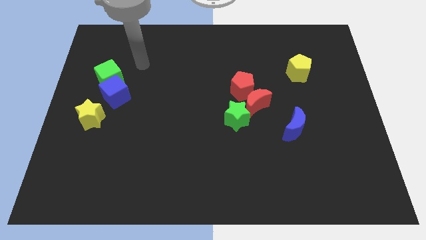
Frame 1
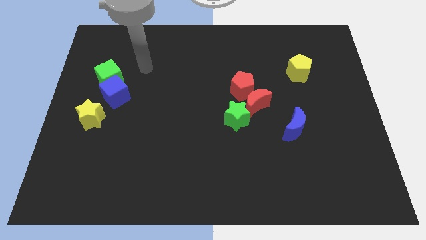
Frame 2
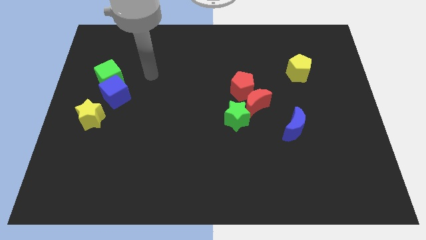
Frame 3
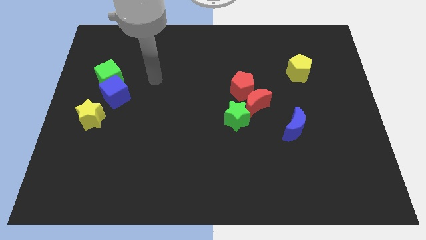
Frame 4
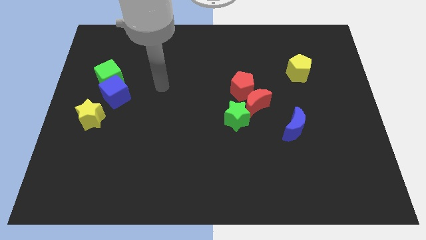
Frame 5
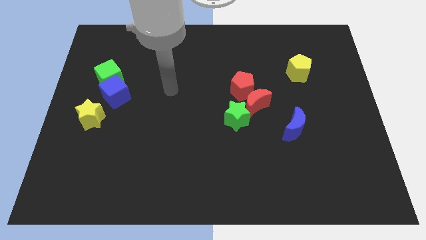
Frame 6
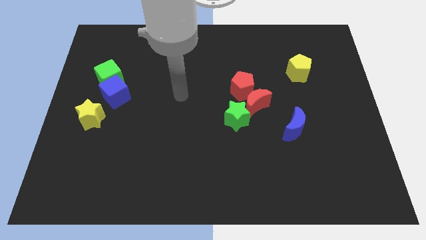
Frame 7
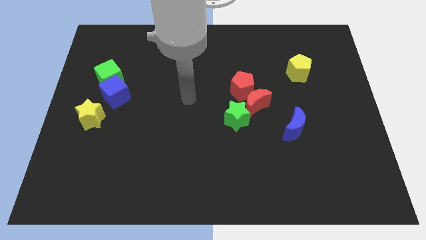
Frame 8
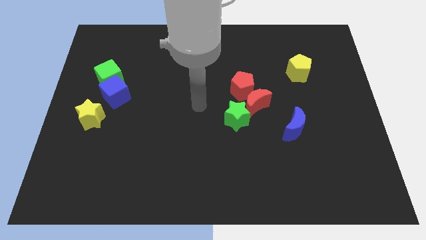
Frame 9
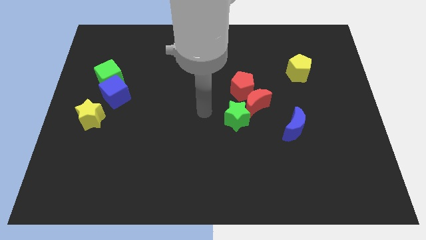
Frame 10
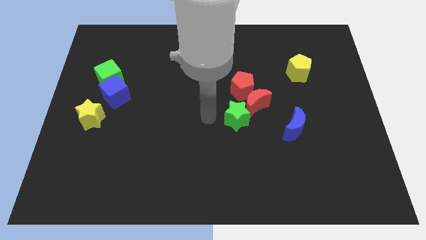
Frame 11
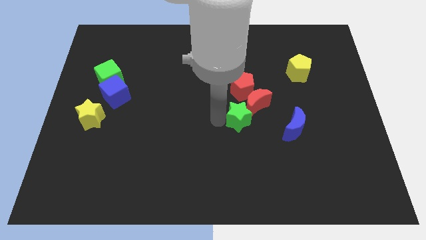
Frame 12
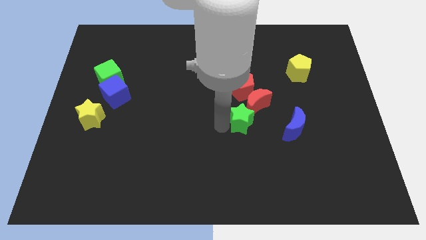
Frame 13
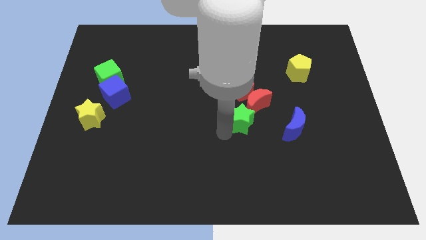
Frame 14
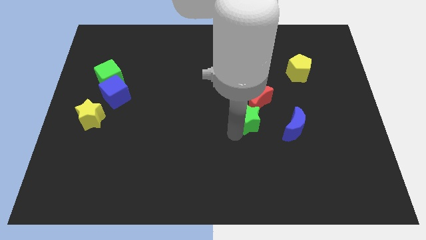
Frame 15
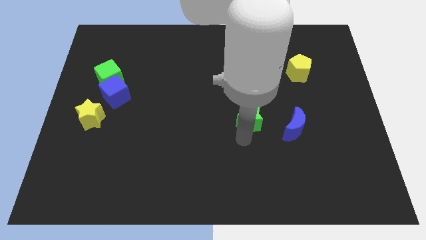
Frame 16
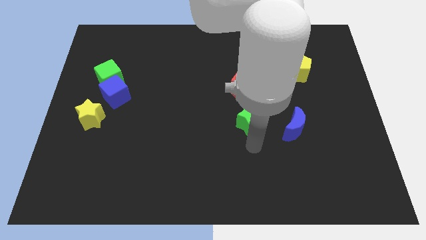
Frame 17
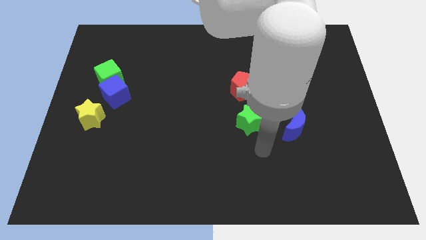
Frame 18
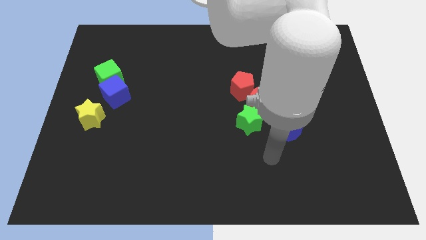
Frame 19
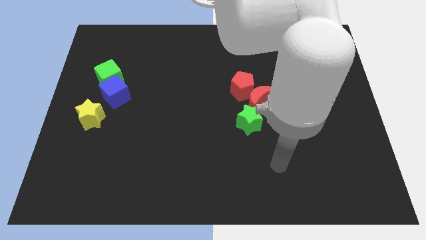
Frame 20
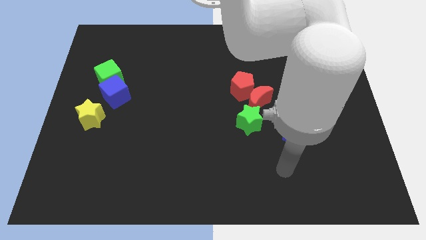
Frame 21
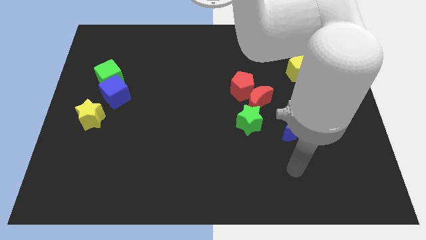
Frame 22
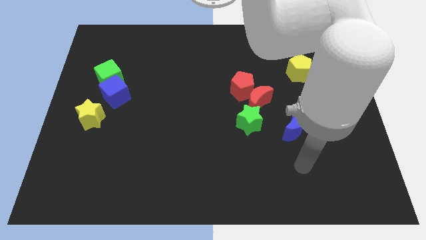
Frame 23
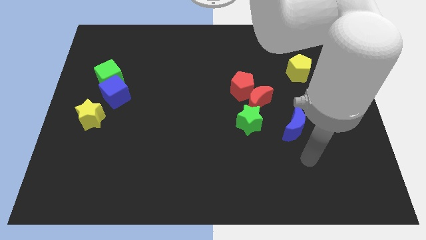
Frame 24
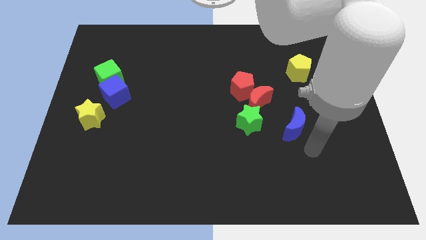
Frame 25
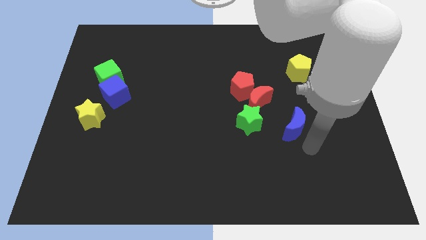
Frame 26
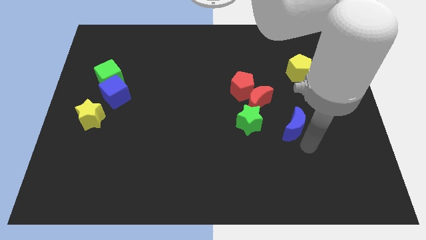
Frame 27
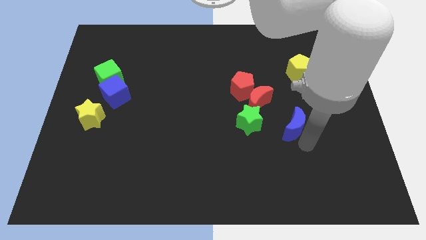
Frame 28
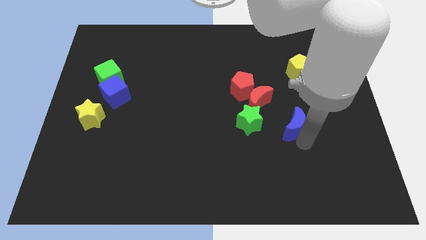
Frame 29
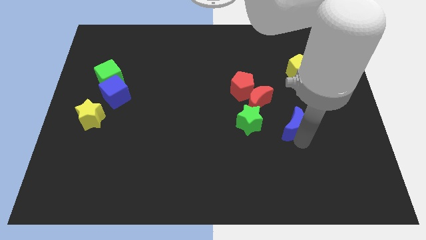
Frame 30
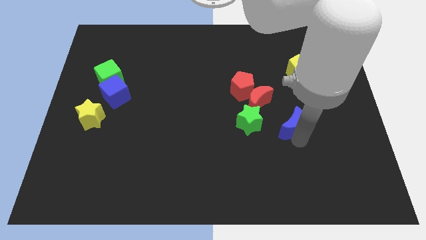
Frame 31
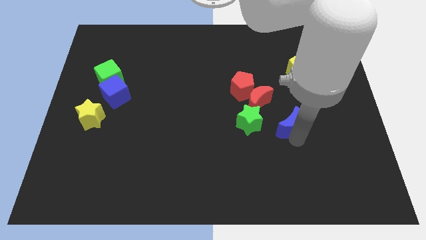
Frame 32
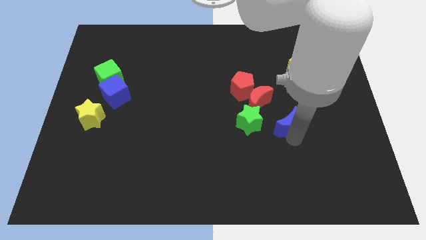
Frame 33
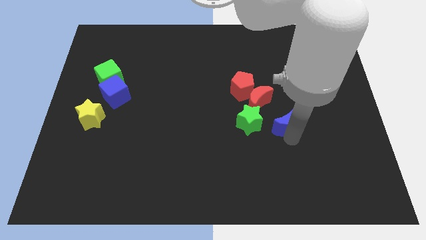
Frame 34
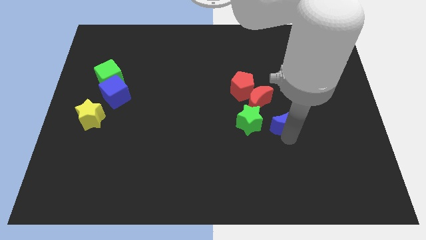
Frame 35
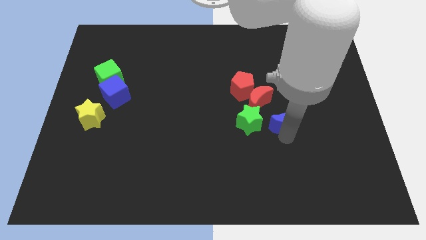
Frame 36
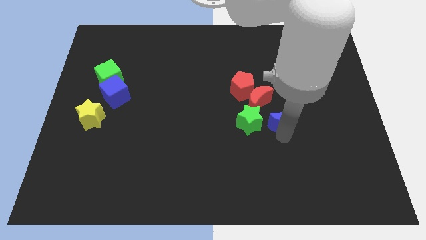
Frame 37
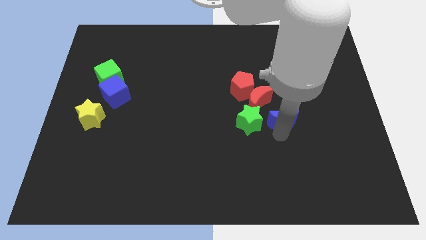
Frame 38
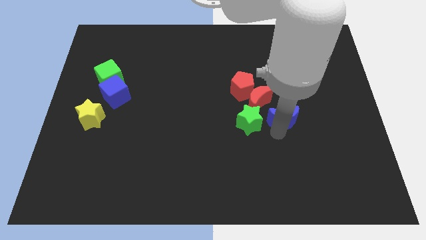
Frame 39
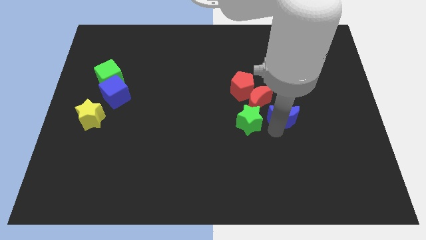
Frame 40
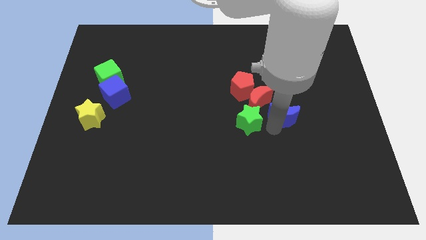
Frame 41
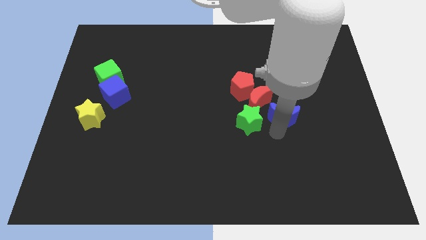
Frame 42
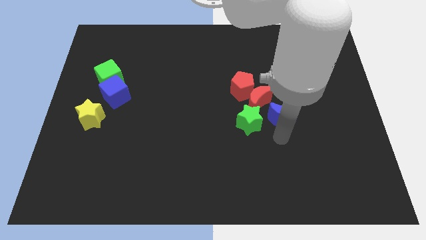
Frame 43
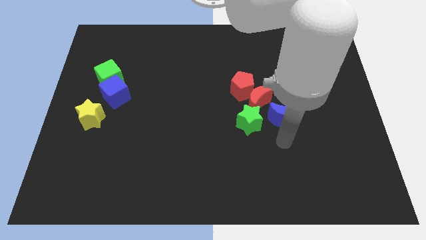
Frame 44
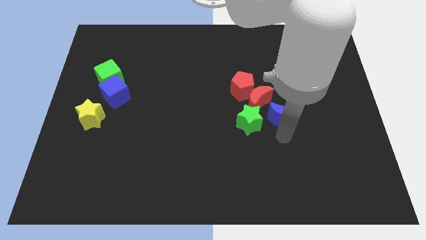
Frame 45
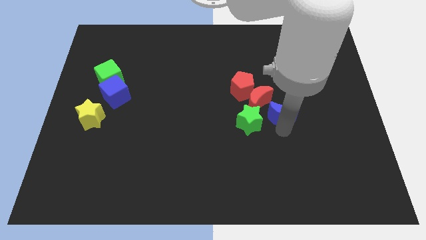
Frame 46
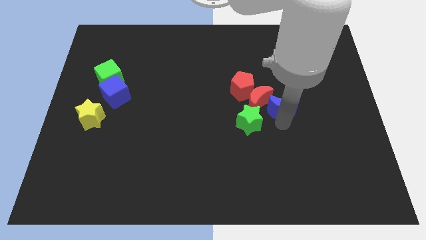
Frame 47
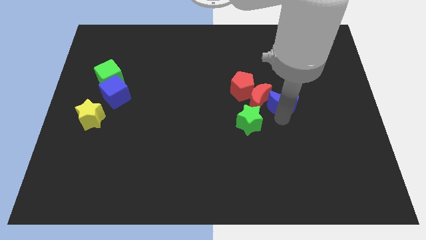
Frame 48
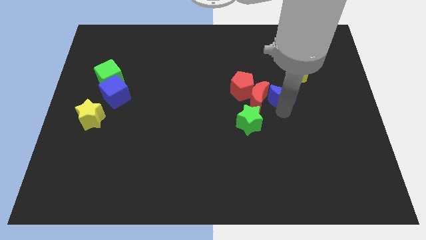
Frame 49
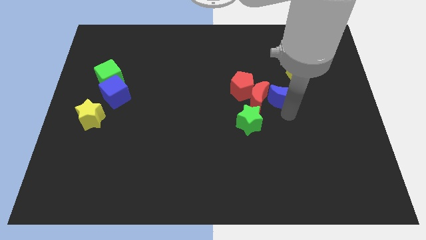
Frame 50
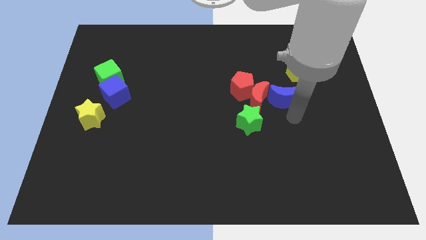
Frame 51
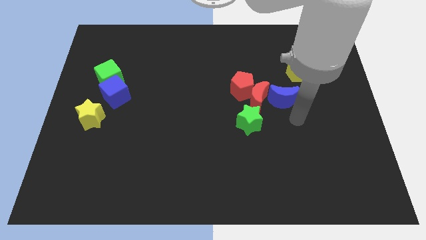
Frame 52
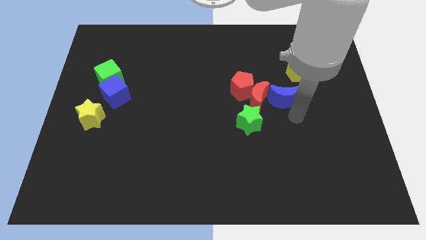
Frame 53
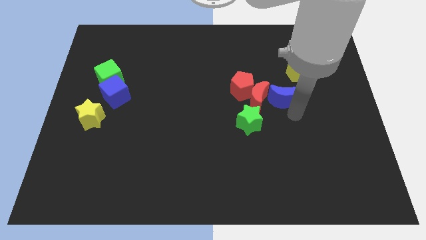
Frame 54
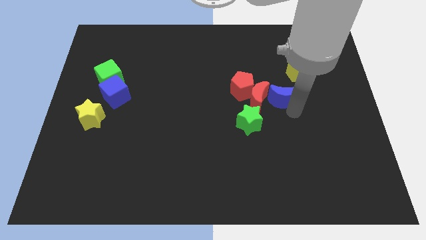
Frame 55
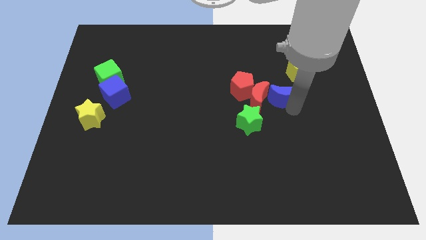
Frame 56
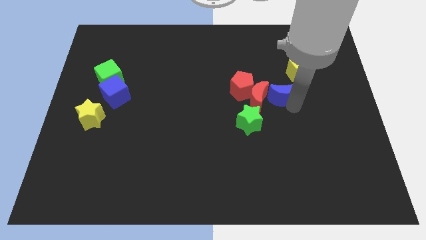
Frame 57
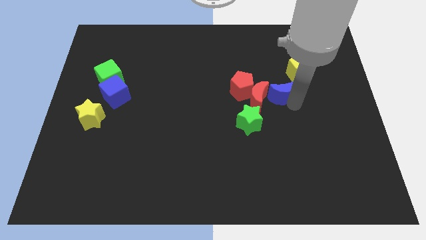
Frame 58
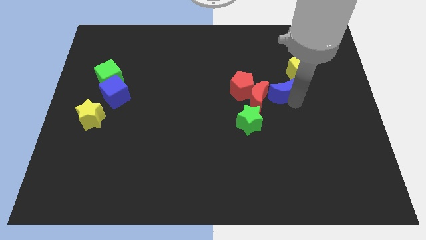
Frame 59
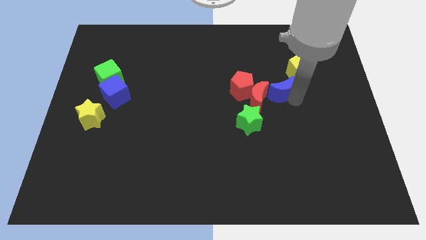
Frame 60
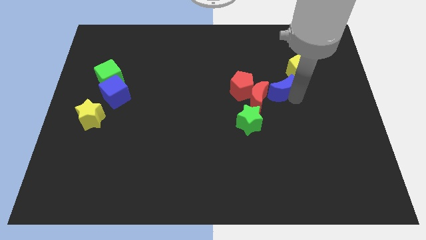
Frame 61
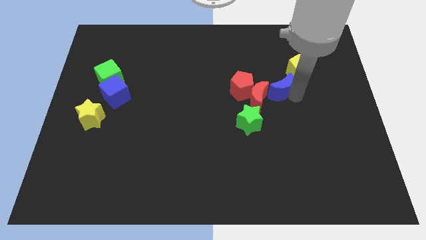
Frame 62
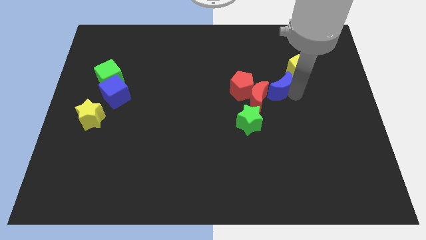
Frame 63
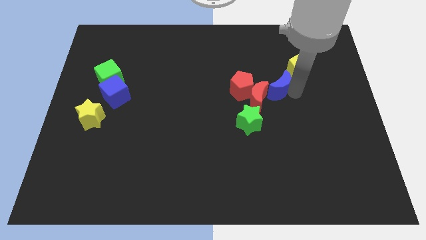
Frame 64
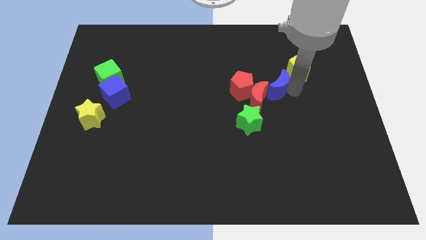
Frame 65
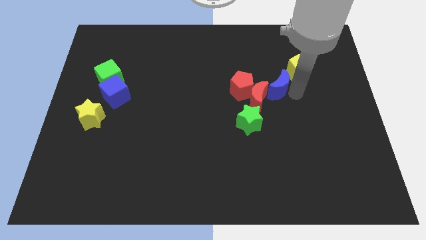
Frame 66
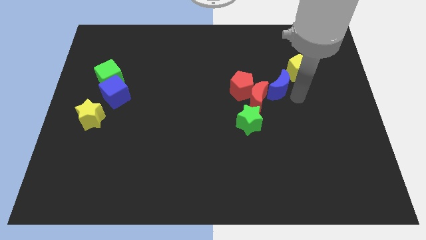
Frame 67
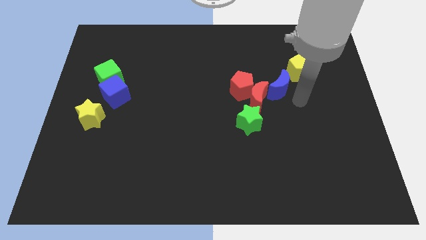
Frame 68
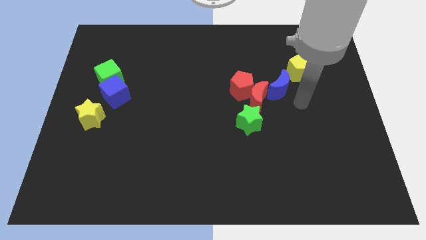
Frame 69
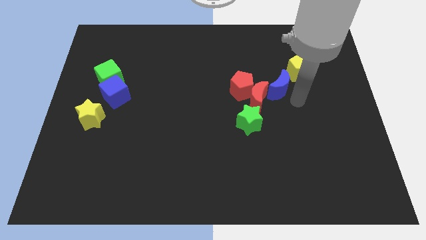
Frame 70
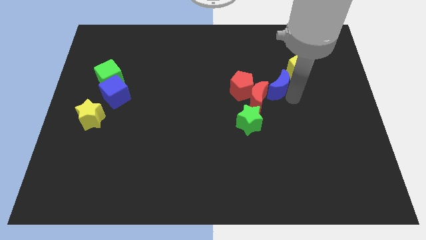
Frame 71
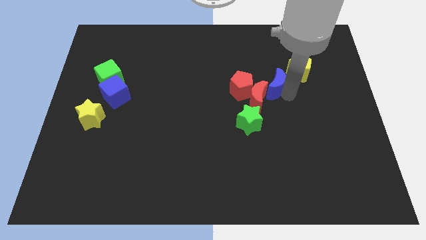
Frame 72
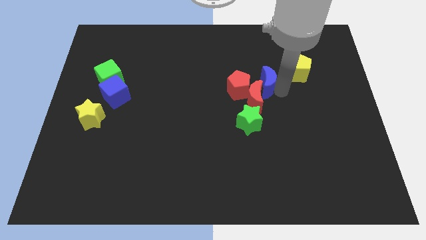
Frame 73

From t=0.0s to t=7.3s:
push the blue moon above the red moon

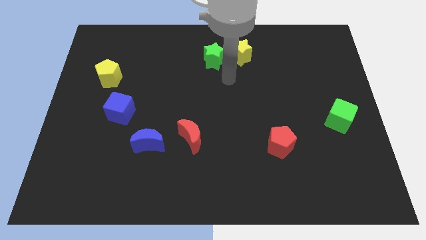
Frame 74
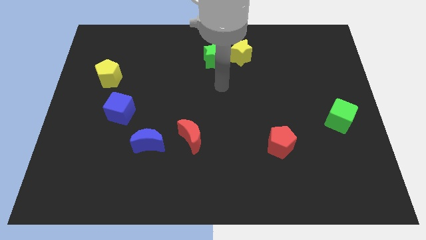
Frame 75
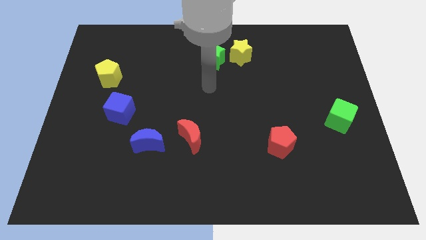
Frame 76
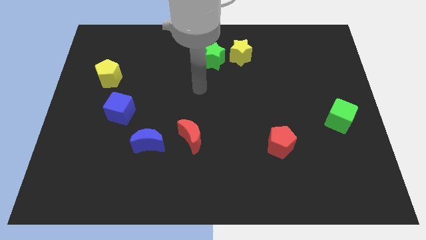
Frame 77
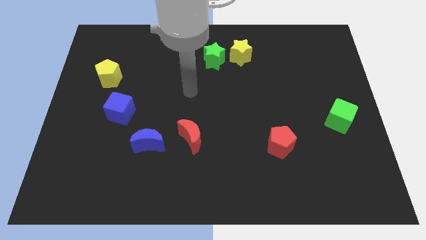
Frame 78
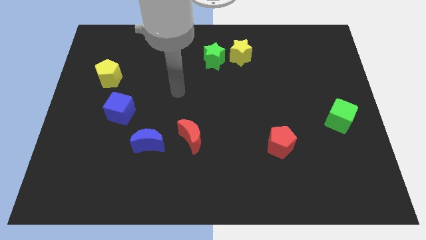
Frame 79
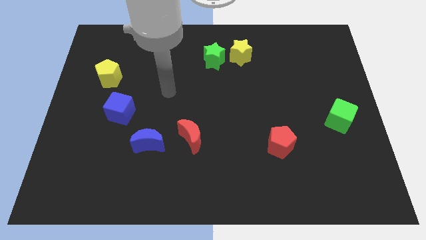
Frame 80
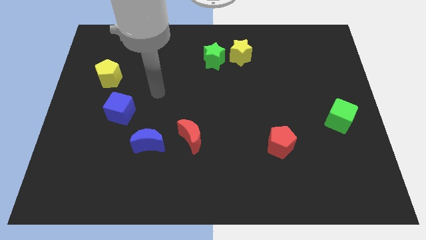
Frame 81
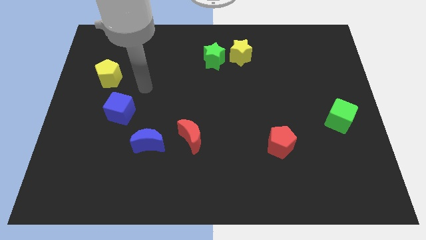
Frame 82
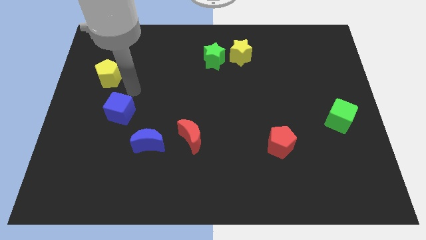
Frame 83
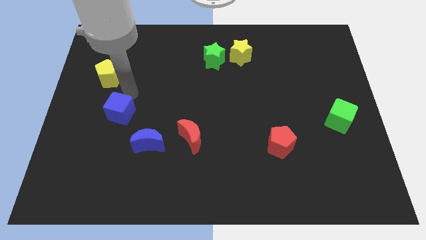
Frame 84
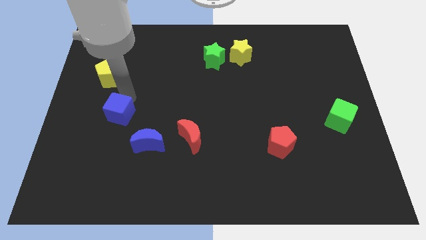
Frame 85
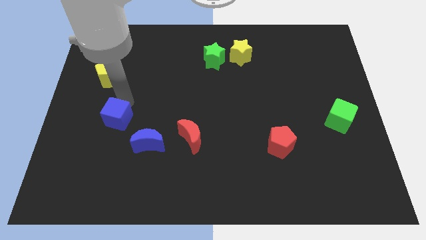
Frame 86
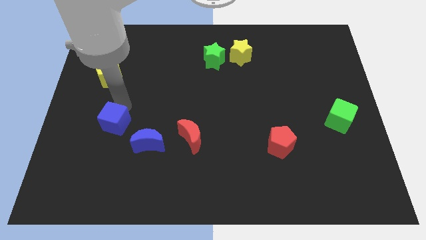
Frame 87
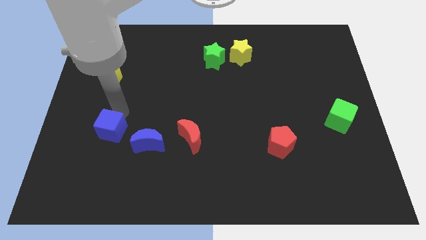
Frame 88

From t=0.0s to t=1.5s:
move the blue cube to the left of the blue moon
